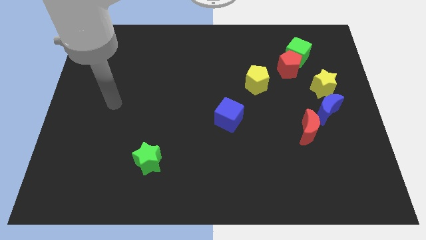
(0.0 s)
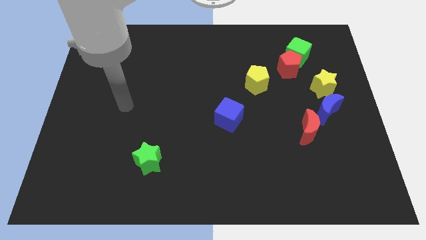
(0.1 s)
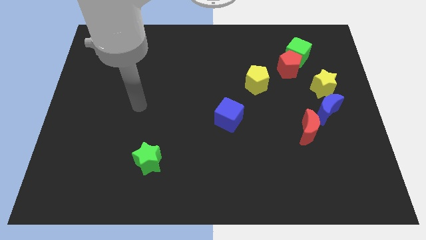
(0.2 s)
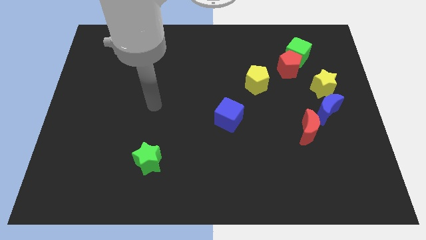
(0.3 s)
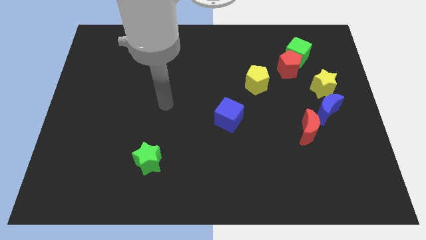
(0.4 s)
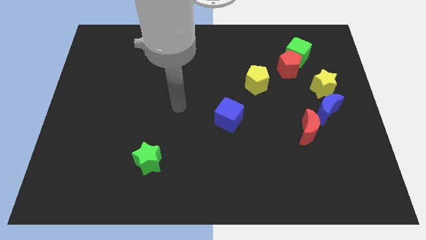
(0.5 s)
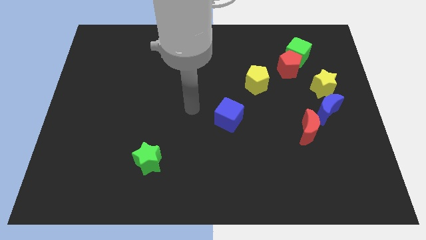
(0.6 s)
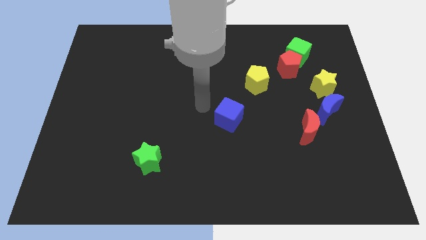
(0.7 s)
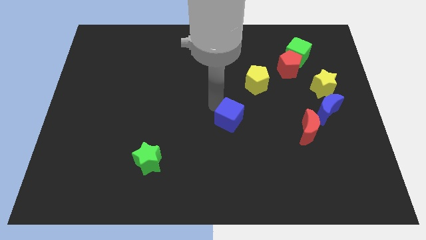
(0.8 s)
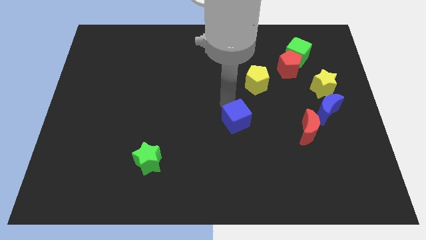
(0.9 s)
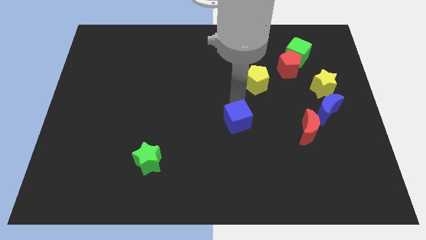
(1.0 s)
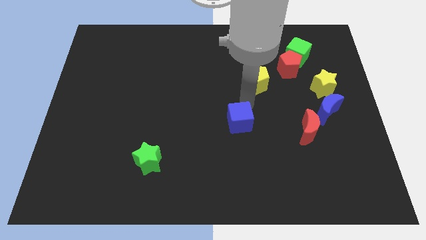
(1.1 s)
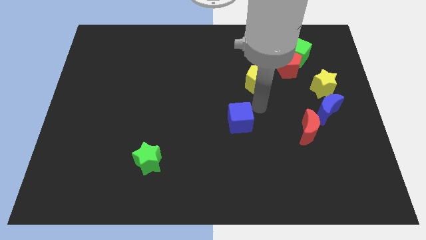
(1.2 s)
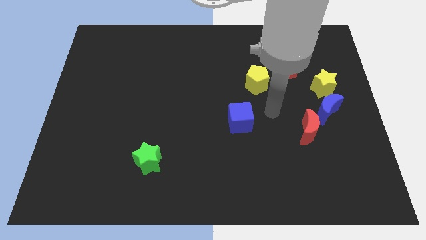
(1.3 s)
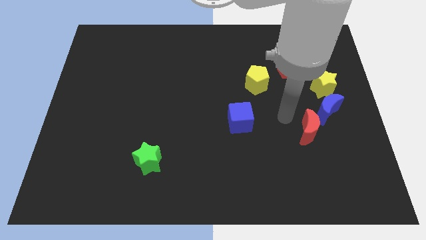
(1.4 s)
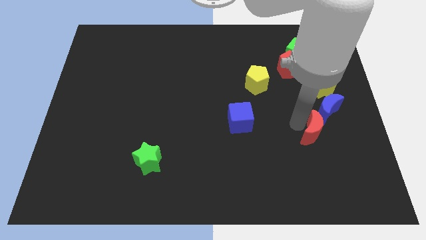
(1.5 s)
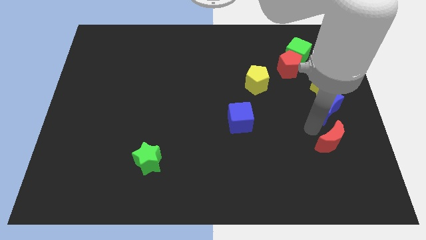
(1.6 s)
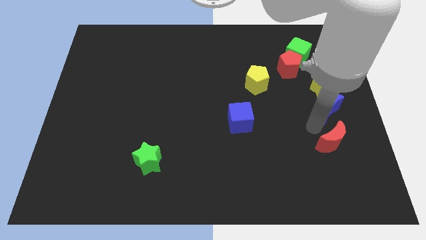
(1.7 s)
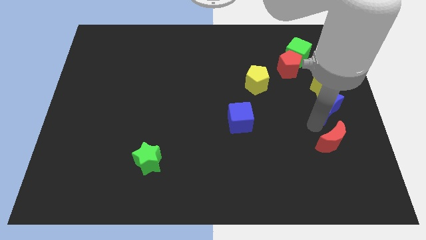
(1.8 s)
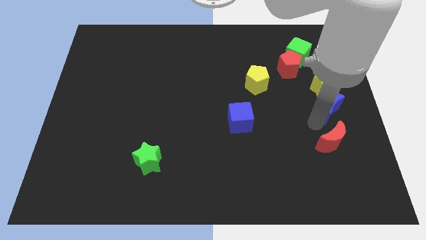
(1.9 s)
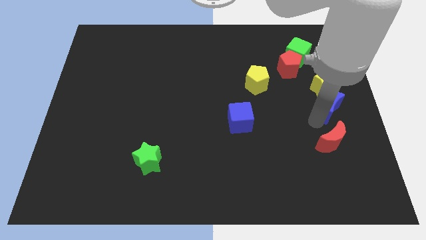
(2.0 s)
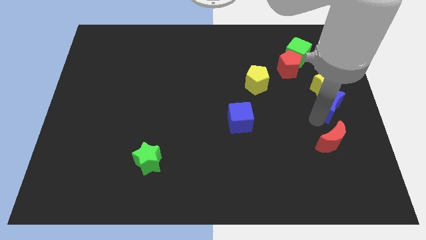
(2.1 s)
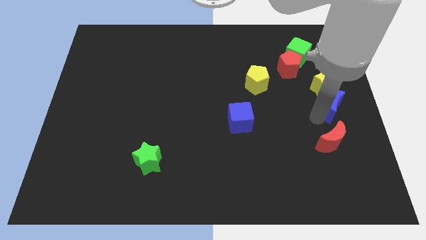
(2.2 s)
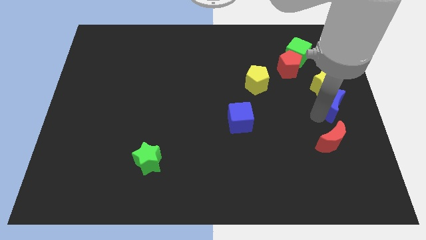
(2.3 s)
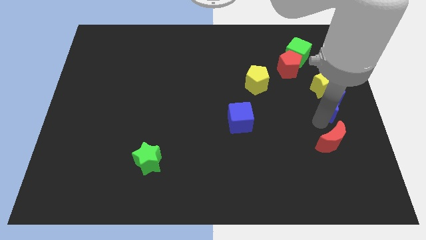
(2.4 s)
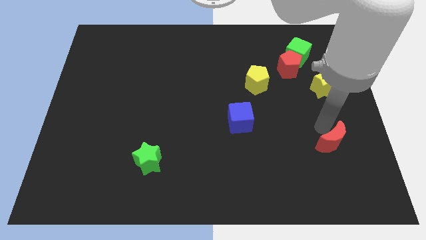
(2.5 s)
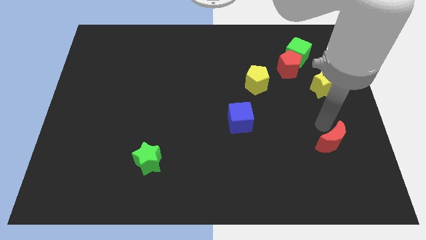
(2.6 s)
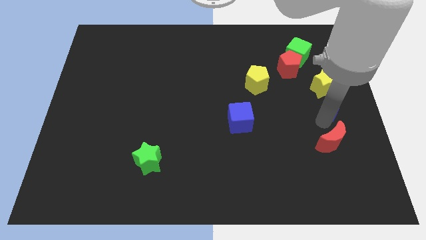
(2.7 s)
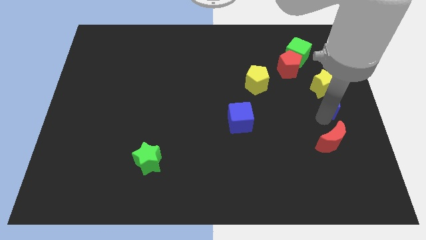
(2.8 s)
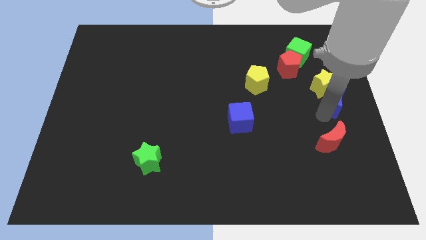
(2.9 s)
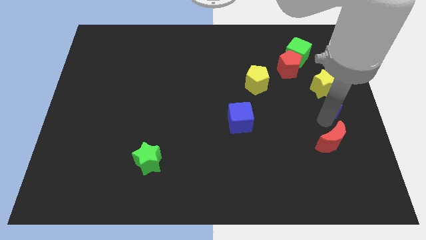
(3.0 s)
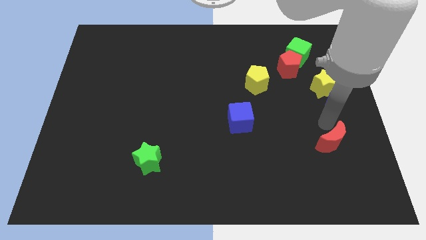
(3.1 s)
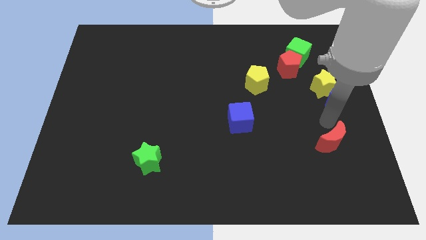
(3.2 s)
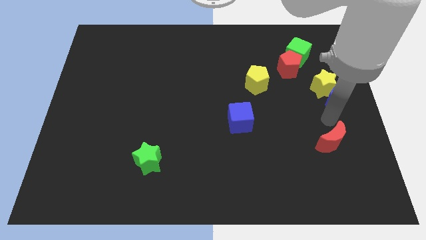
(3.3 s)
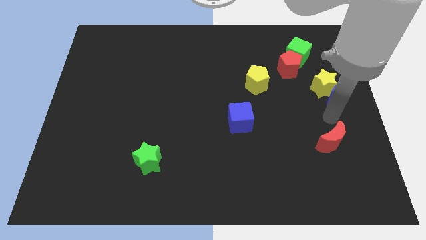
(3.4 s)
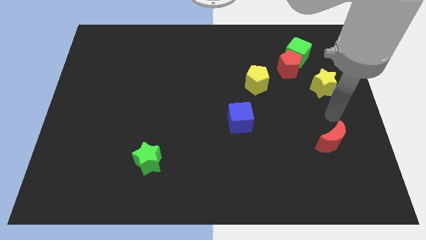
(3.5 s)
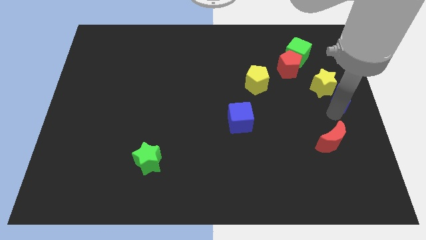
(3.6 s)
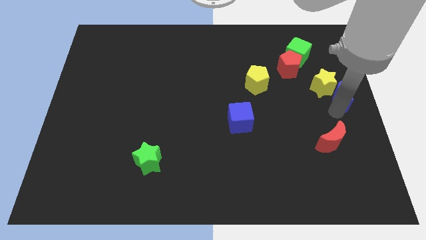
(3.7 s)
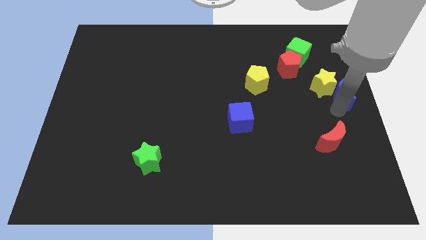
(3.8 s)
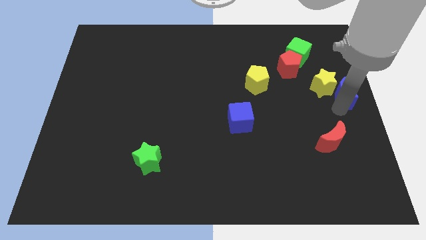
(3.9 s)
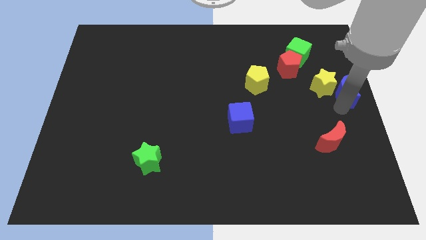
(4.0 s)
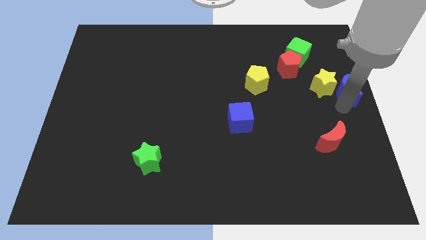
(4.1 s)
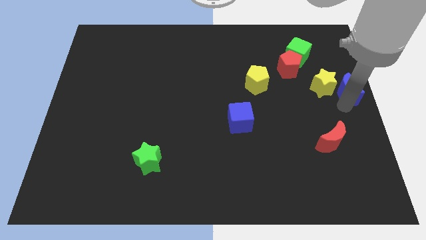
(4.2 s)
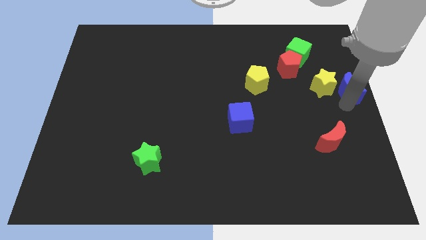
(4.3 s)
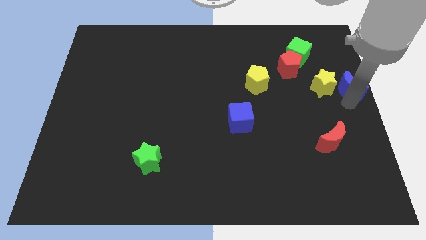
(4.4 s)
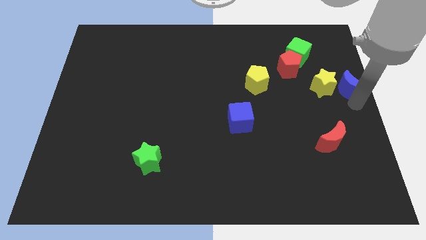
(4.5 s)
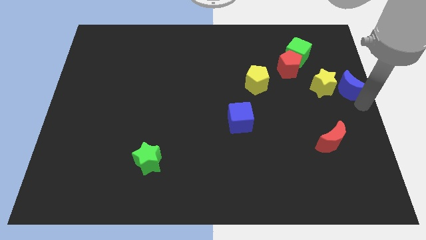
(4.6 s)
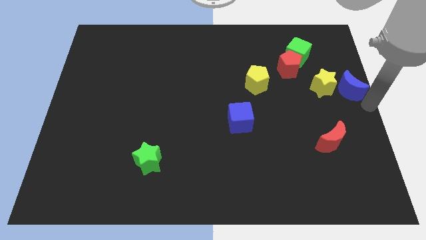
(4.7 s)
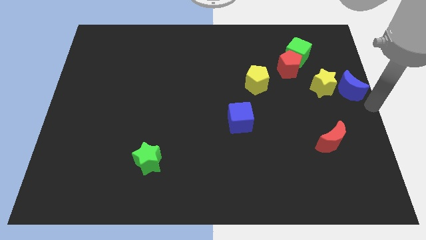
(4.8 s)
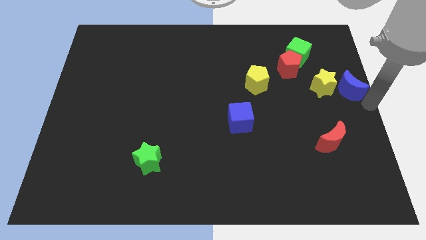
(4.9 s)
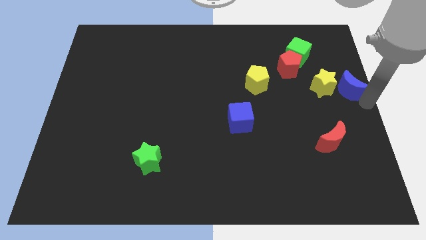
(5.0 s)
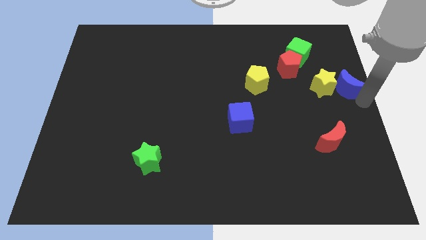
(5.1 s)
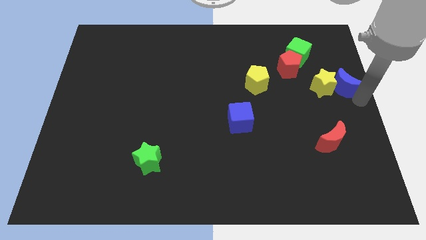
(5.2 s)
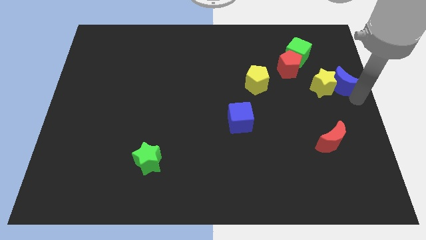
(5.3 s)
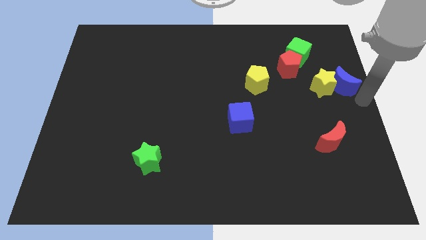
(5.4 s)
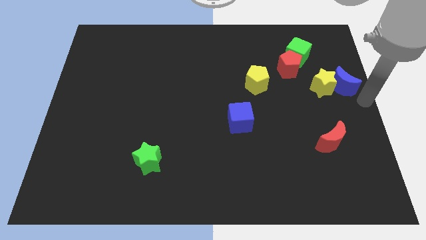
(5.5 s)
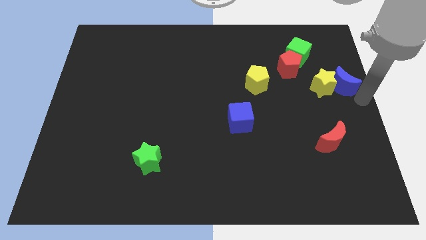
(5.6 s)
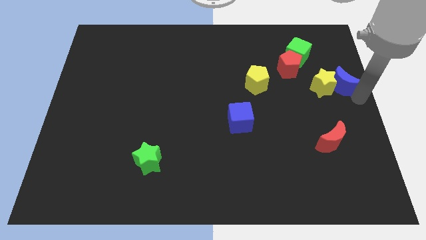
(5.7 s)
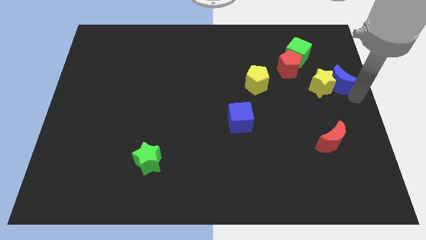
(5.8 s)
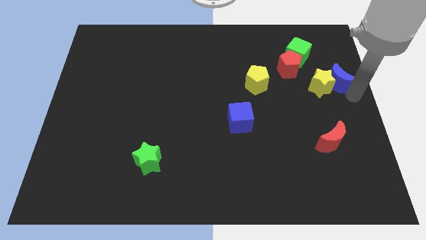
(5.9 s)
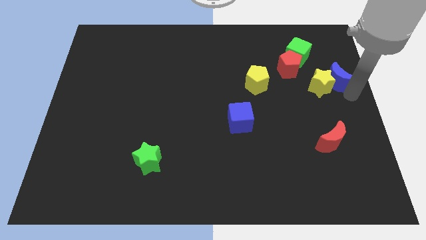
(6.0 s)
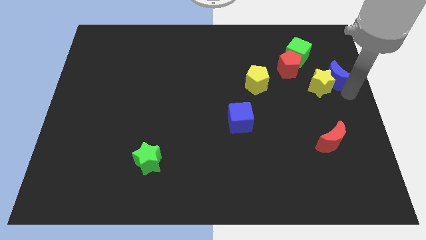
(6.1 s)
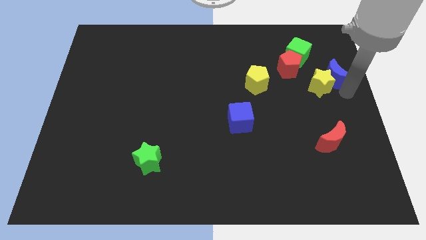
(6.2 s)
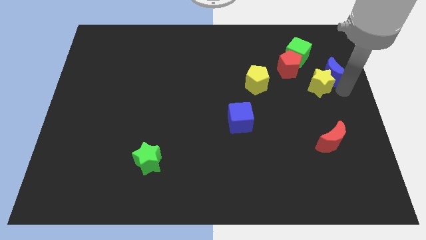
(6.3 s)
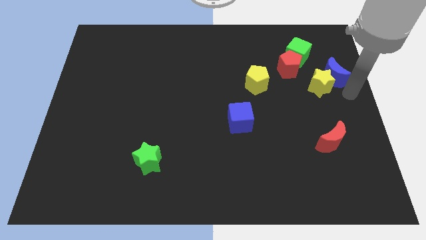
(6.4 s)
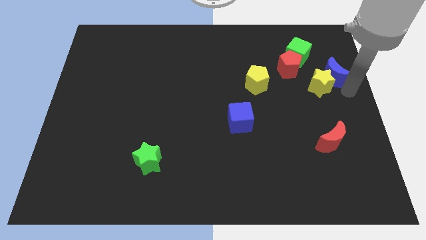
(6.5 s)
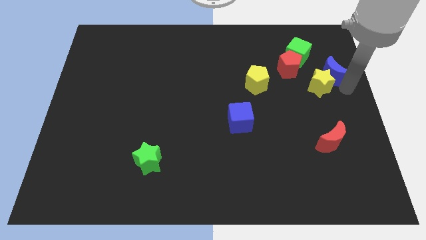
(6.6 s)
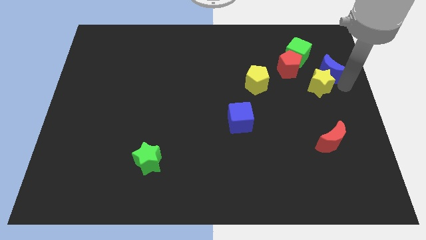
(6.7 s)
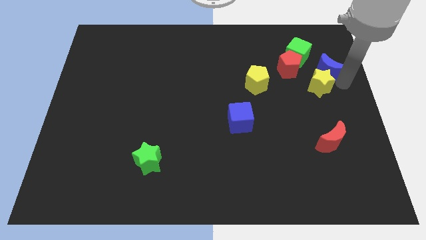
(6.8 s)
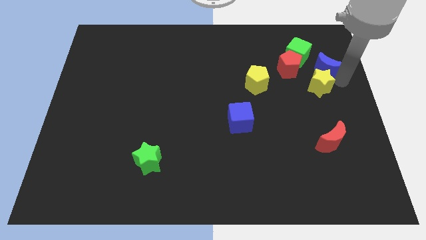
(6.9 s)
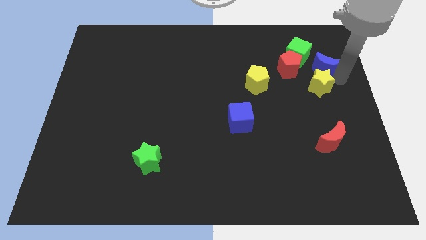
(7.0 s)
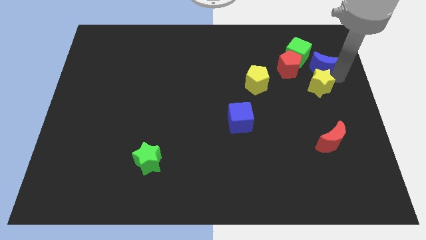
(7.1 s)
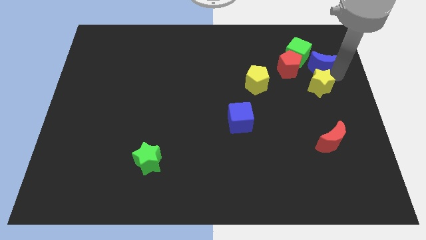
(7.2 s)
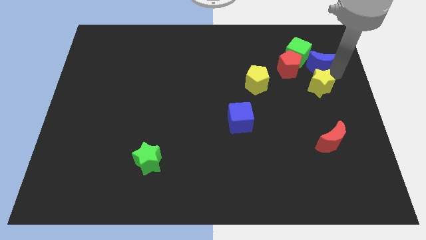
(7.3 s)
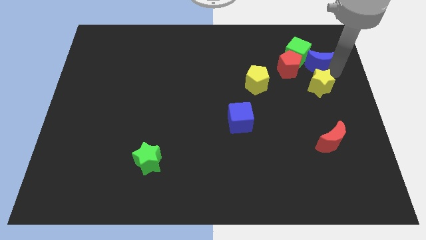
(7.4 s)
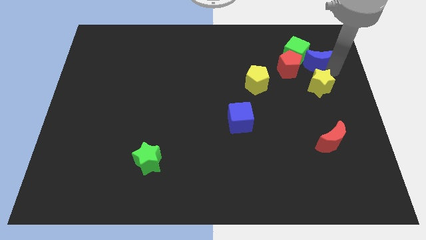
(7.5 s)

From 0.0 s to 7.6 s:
move the blue moon to the green cube
